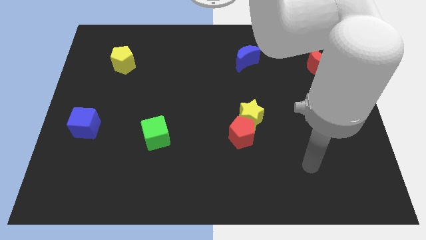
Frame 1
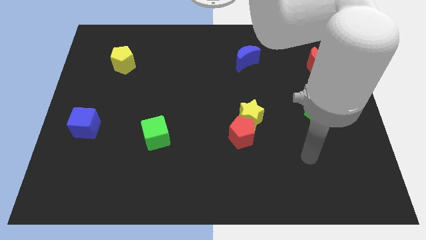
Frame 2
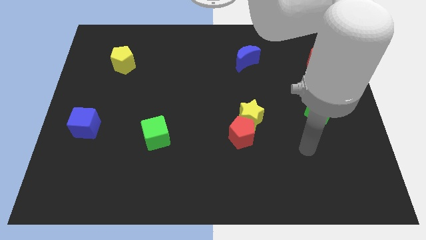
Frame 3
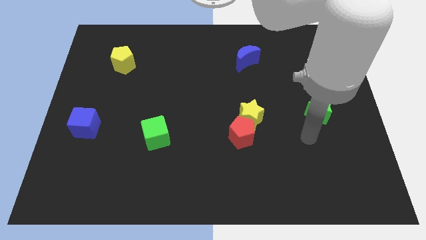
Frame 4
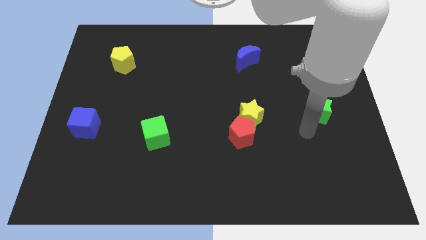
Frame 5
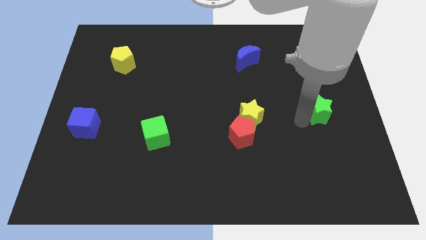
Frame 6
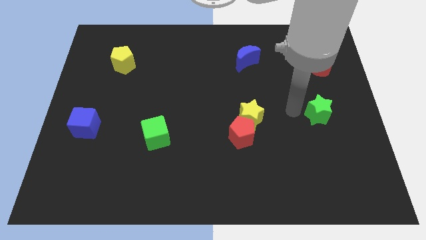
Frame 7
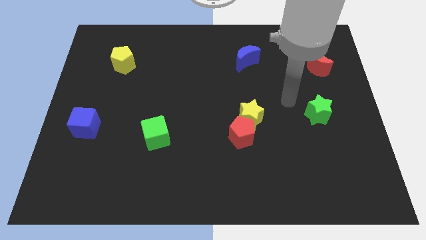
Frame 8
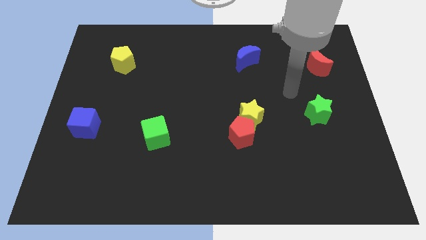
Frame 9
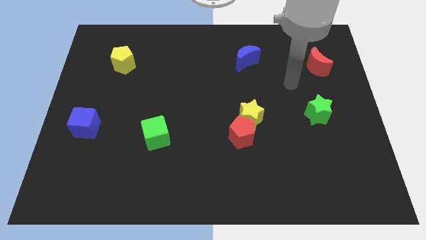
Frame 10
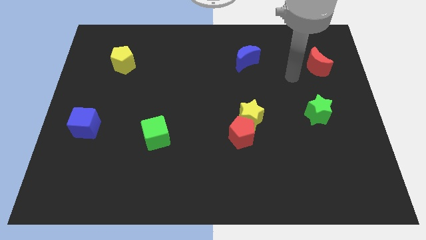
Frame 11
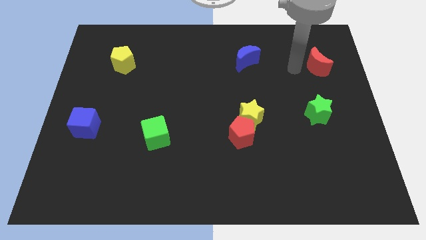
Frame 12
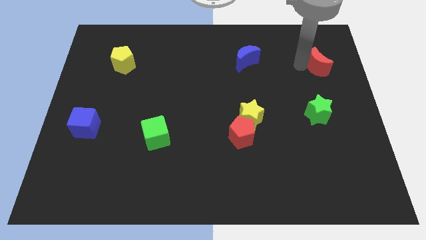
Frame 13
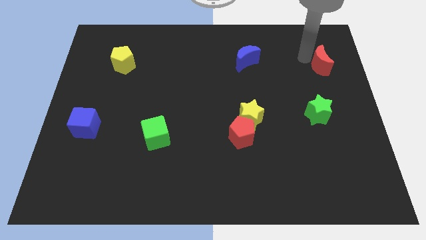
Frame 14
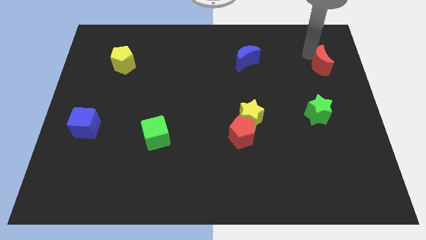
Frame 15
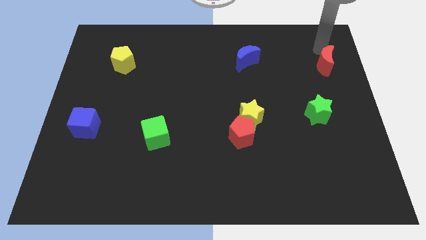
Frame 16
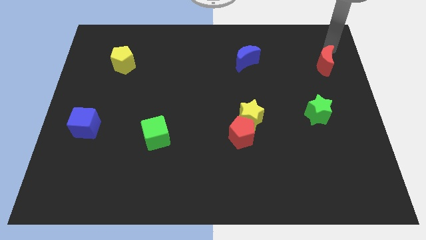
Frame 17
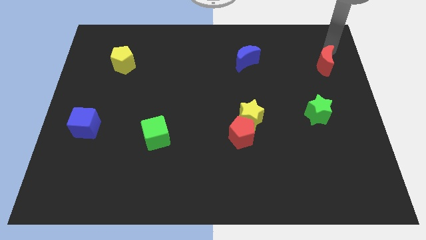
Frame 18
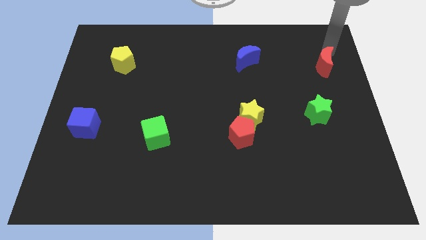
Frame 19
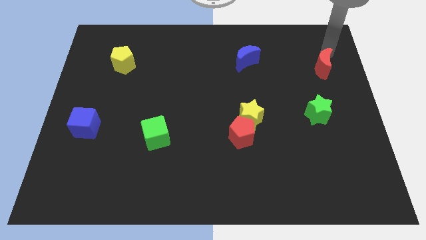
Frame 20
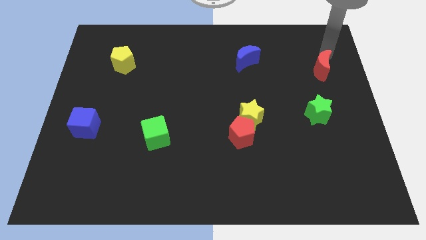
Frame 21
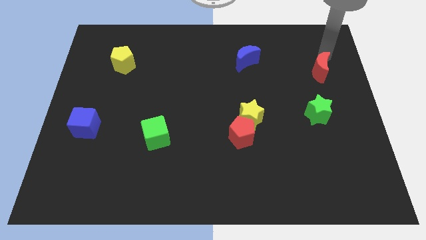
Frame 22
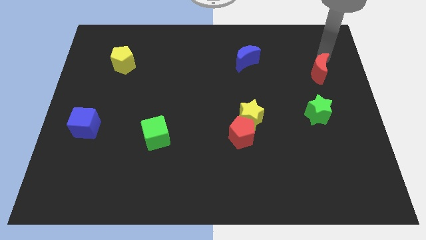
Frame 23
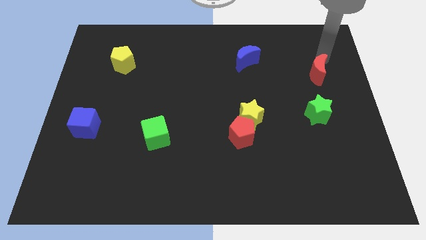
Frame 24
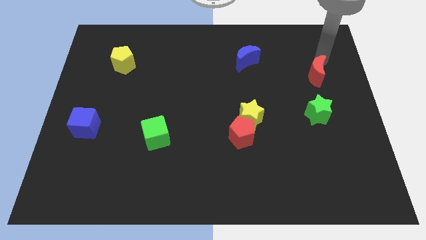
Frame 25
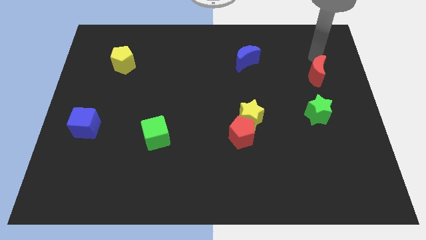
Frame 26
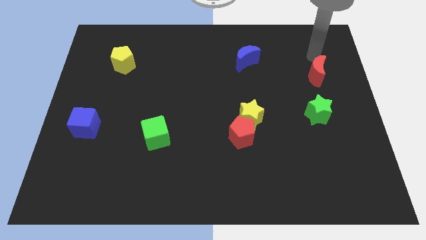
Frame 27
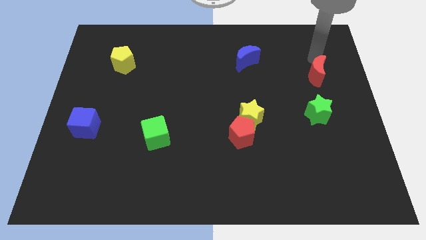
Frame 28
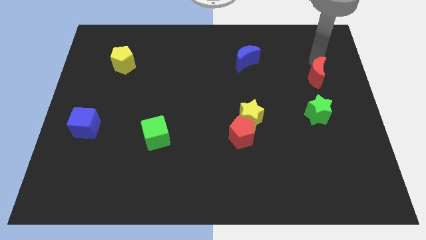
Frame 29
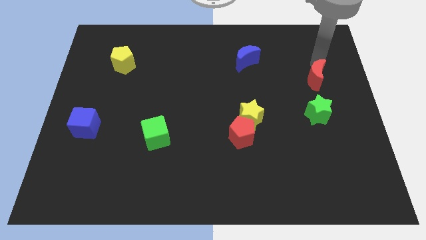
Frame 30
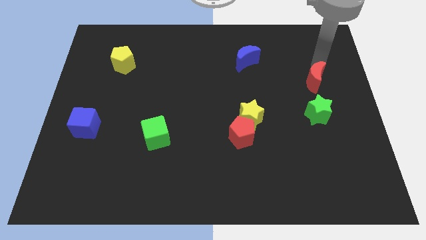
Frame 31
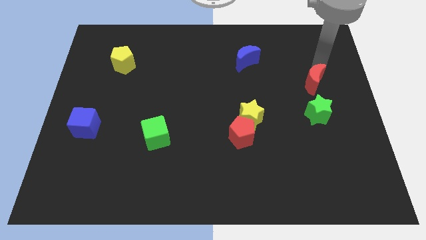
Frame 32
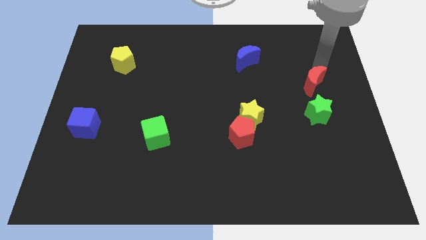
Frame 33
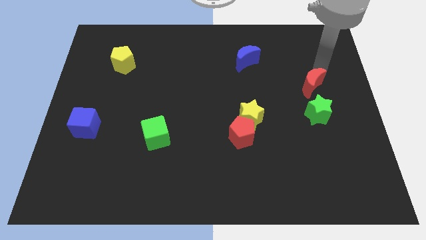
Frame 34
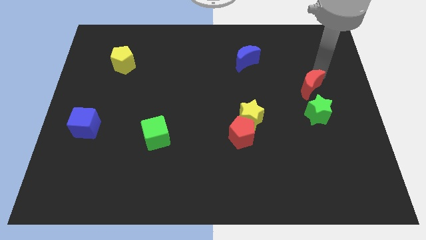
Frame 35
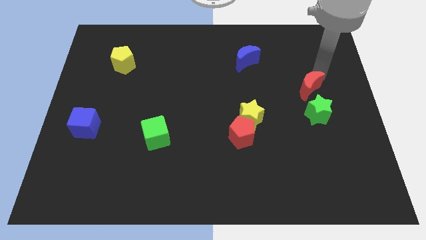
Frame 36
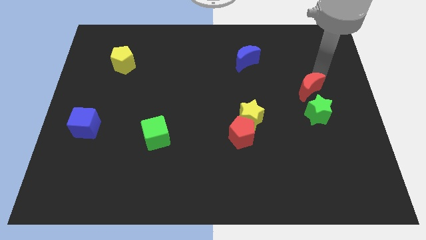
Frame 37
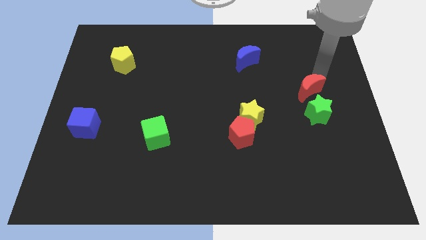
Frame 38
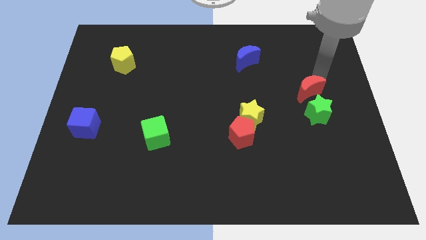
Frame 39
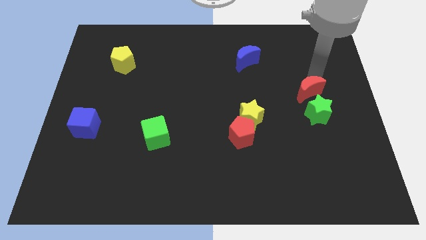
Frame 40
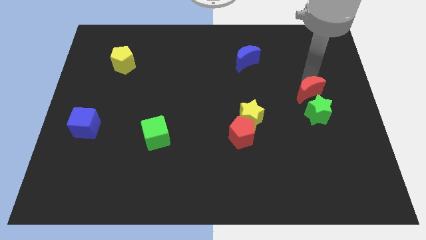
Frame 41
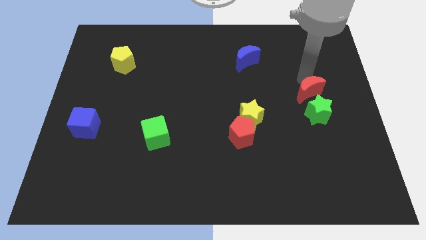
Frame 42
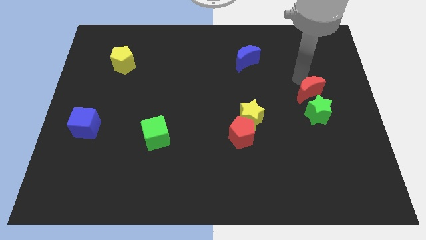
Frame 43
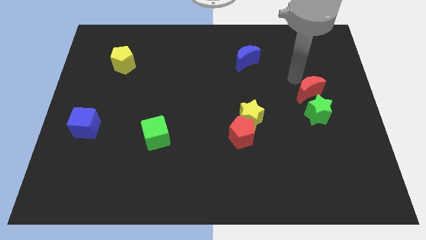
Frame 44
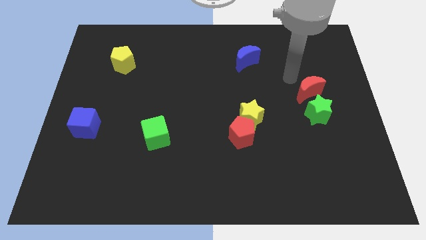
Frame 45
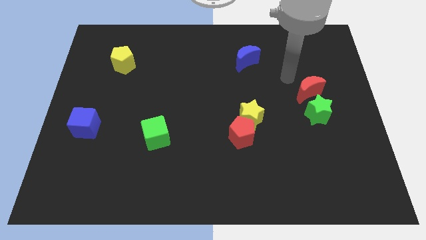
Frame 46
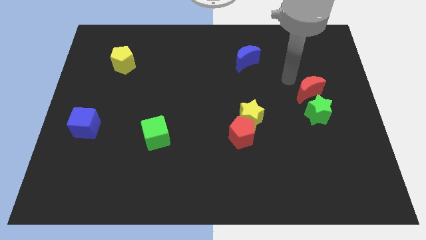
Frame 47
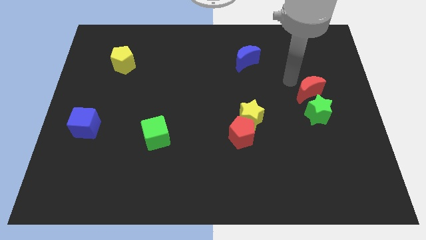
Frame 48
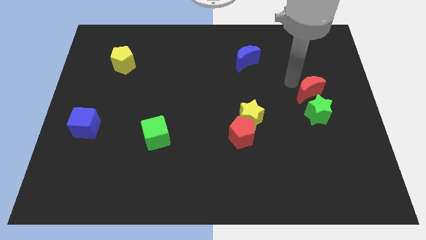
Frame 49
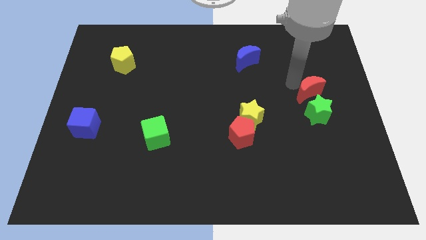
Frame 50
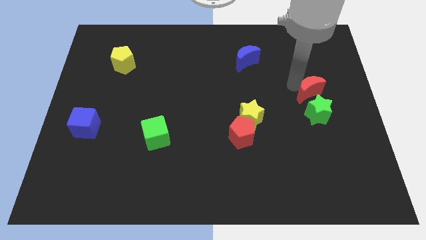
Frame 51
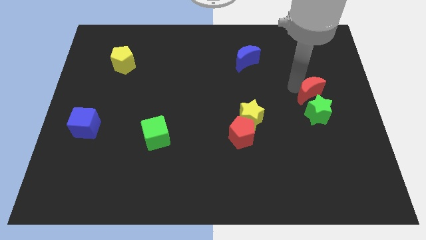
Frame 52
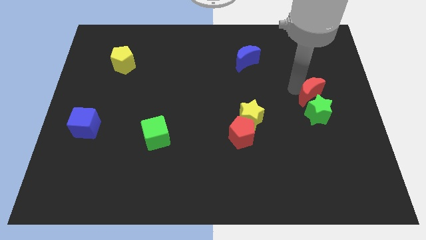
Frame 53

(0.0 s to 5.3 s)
slide the red moon to the green star
